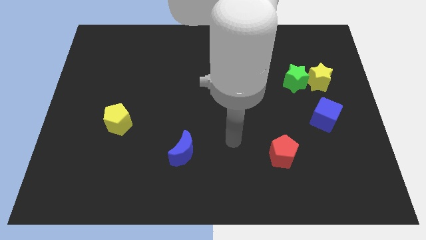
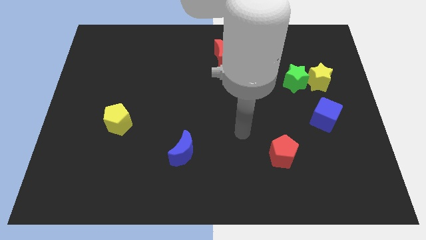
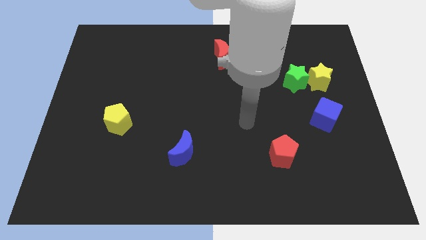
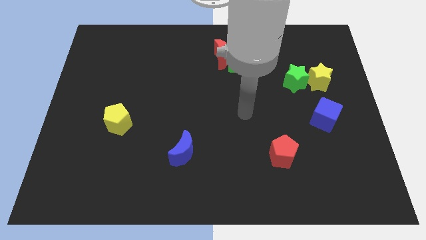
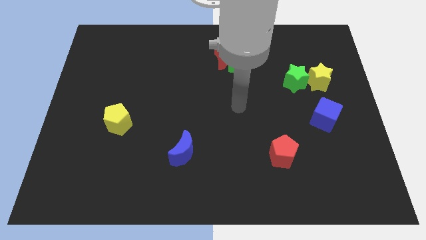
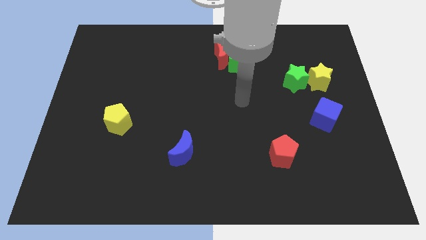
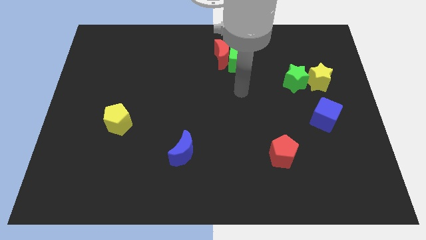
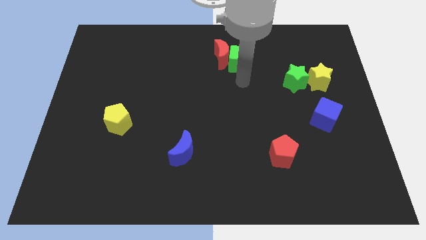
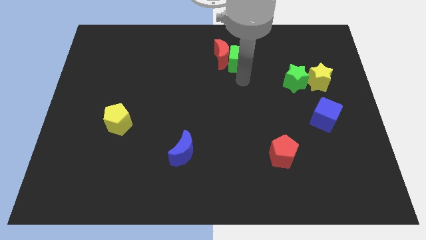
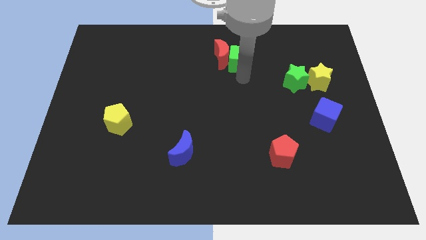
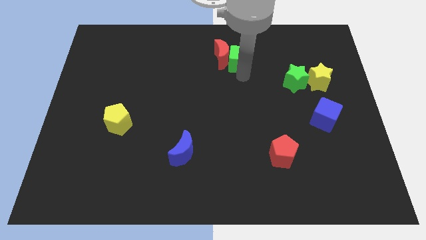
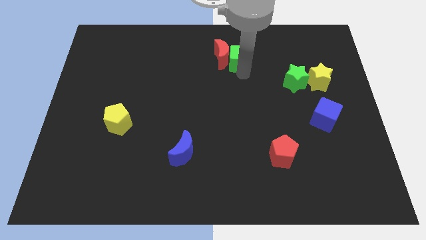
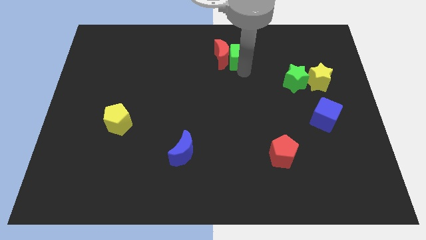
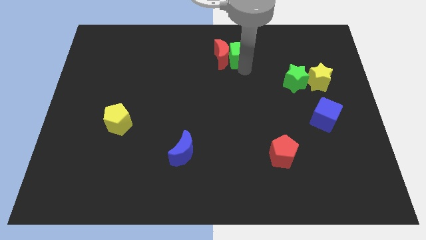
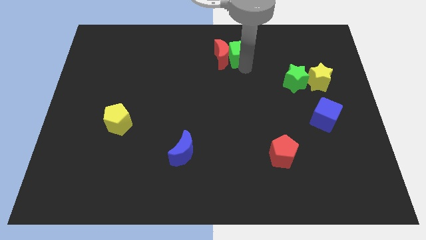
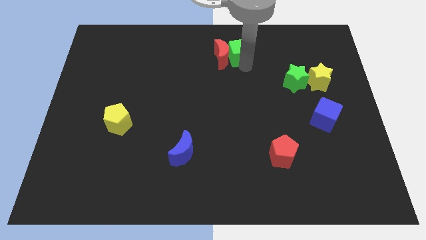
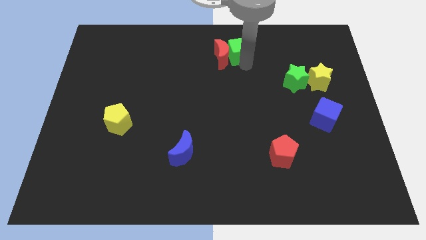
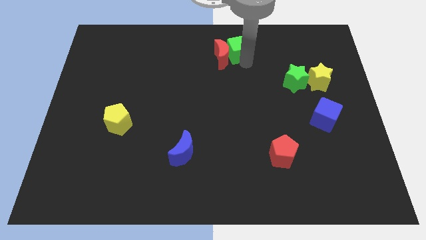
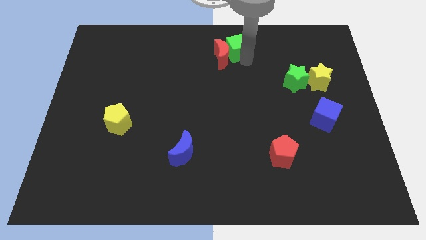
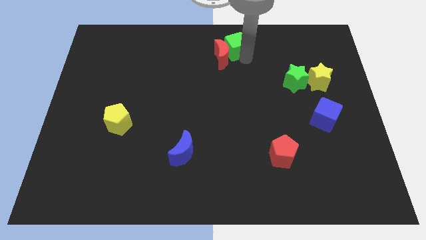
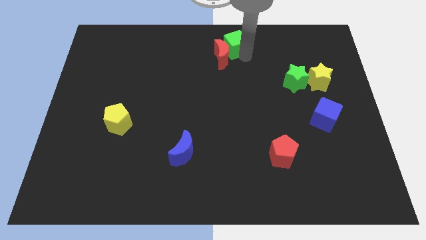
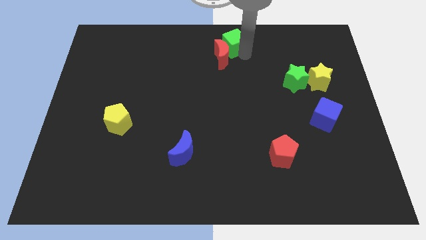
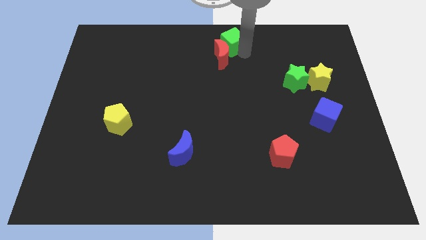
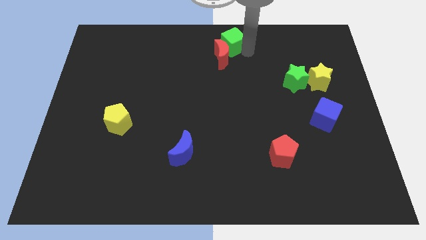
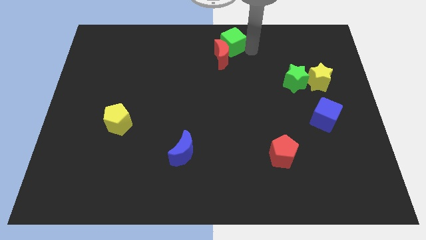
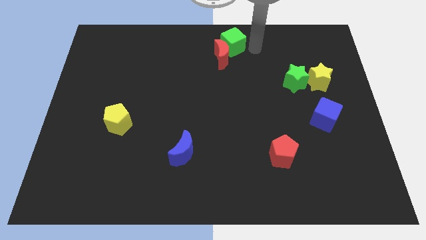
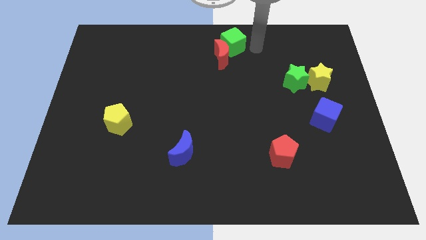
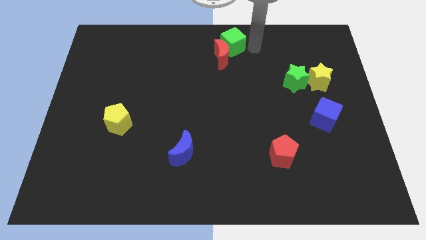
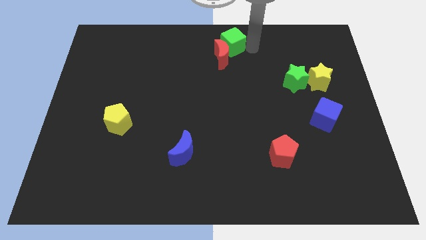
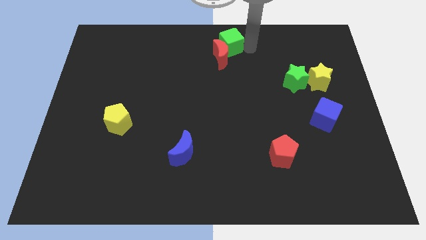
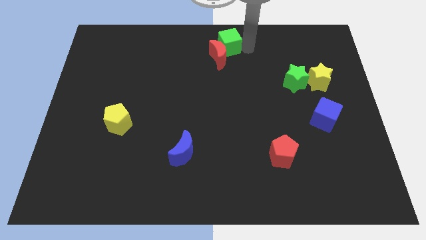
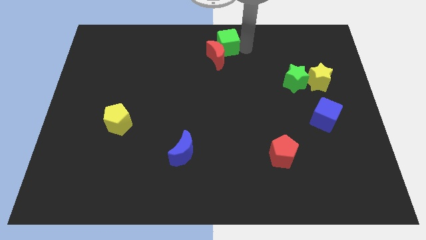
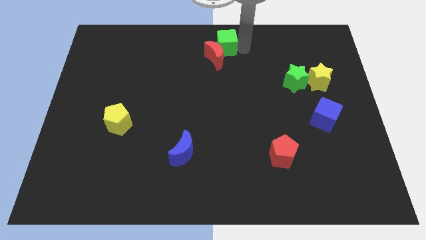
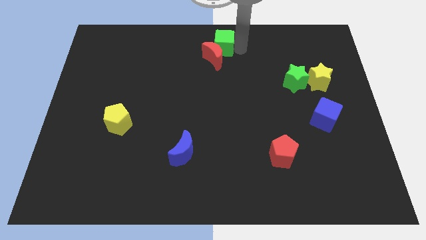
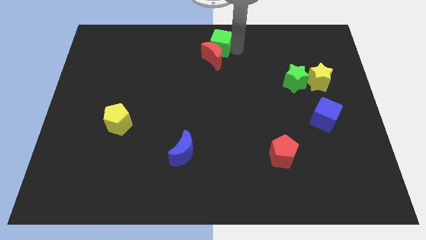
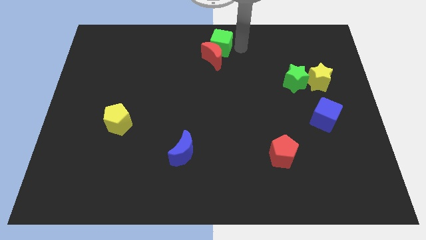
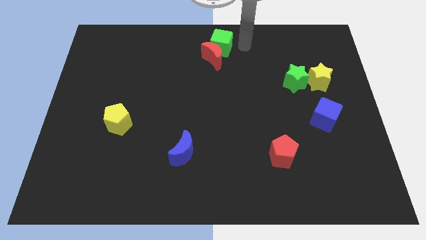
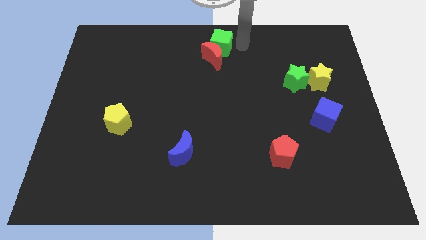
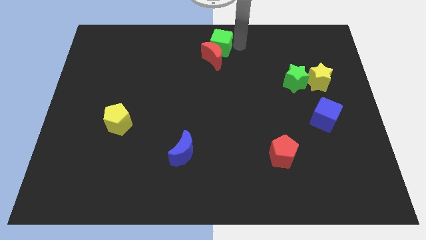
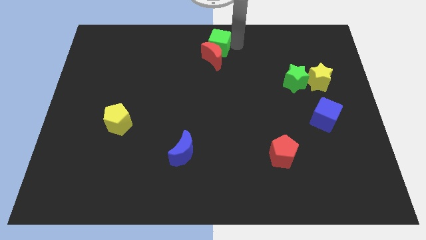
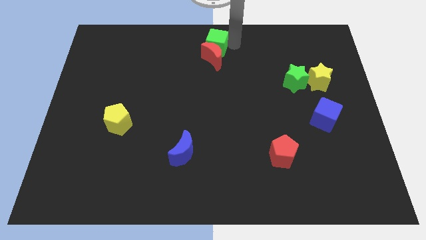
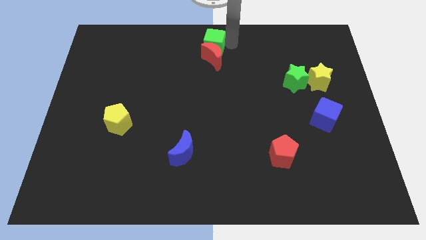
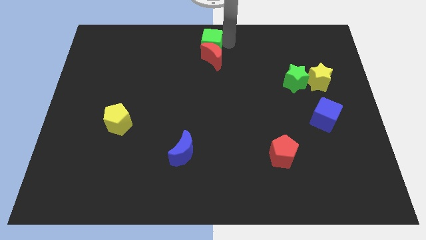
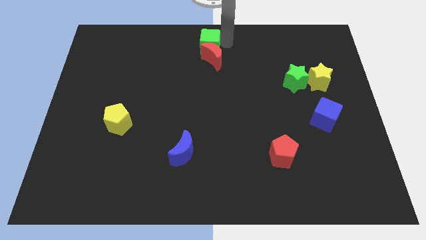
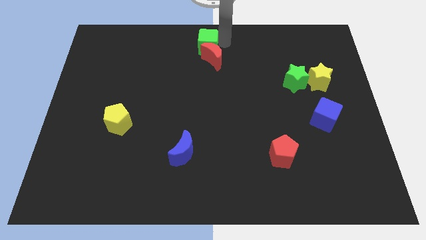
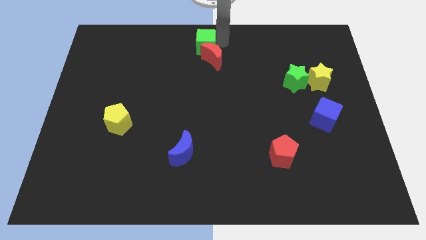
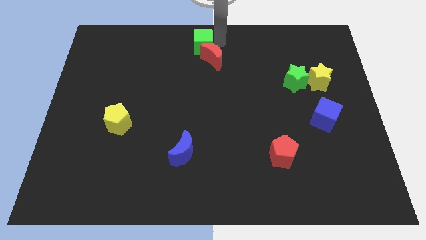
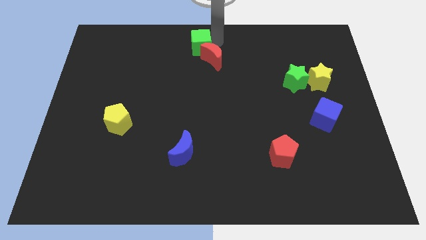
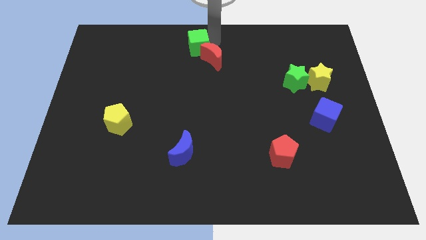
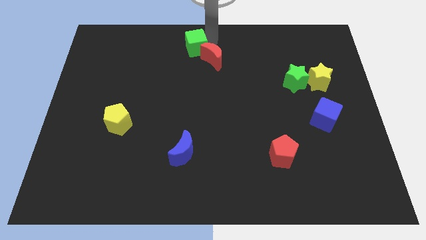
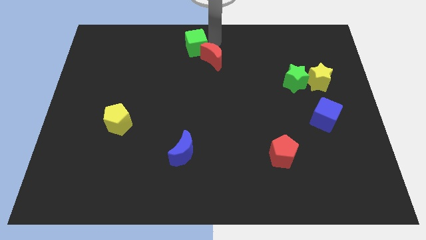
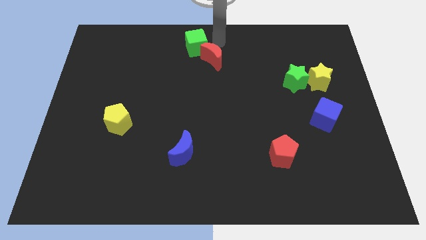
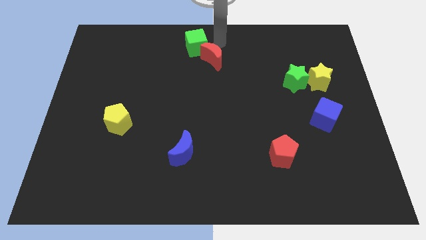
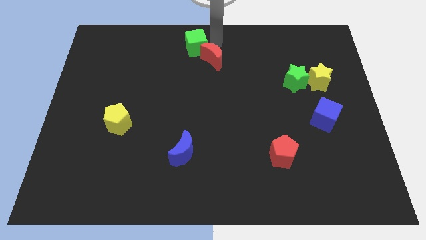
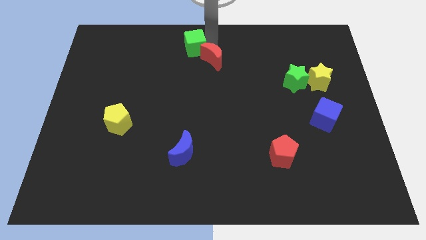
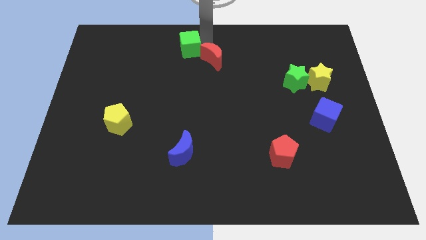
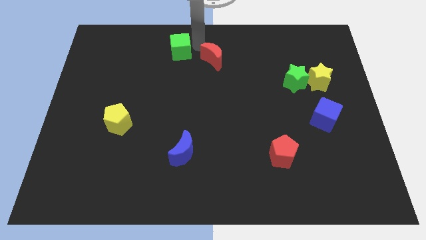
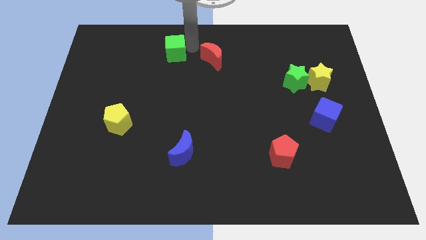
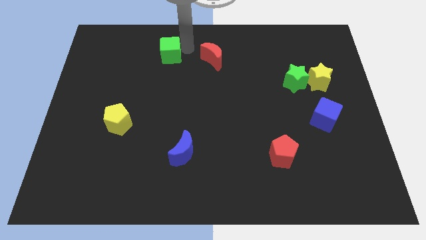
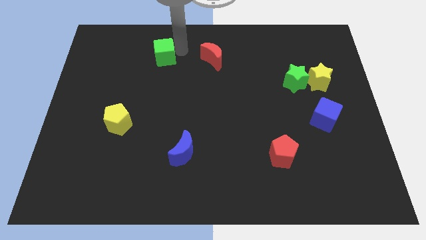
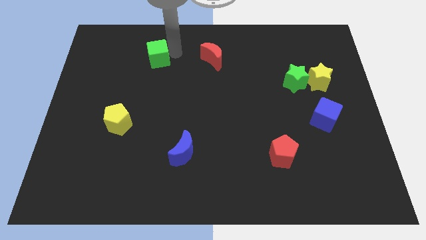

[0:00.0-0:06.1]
slide the green cube left

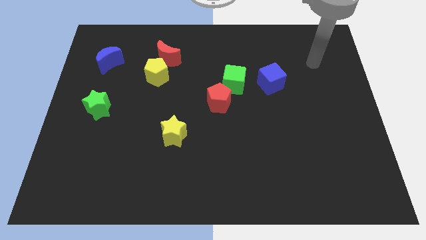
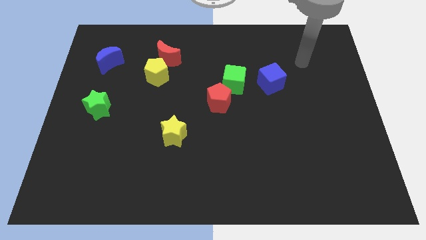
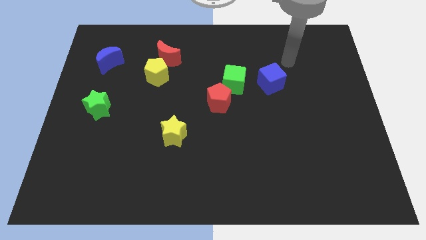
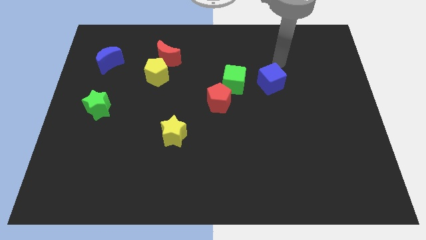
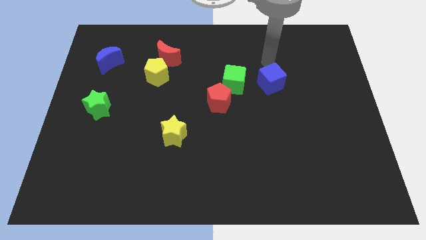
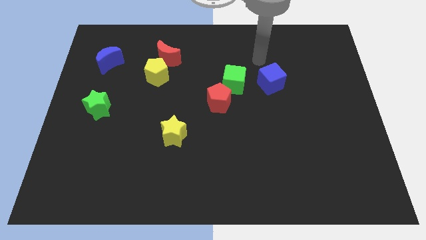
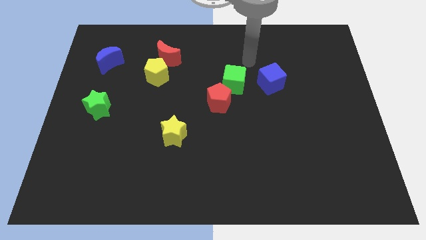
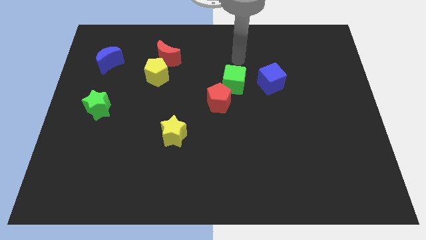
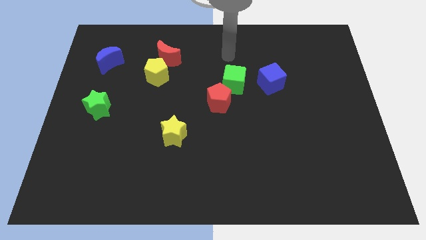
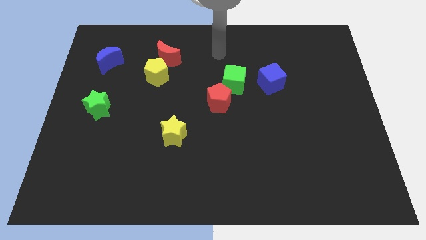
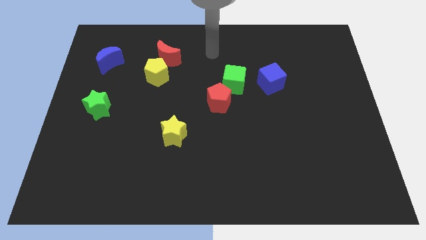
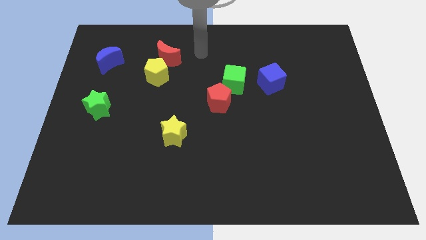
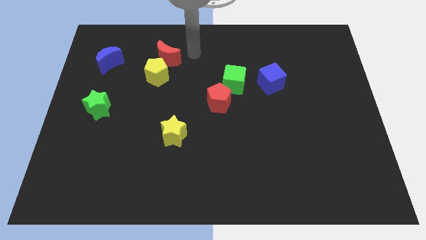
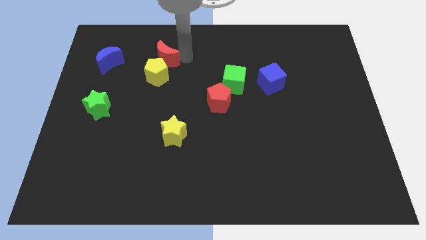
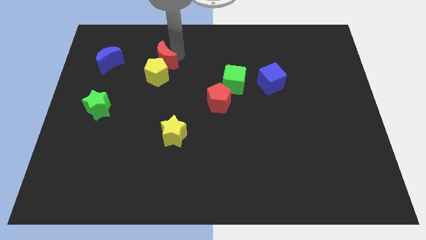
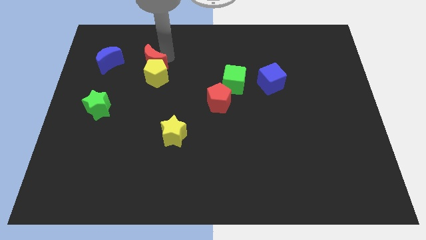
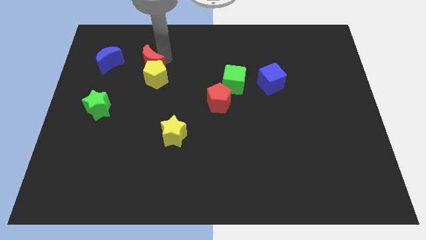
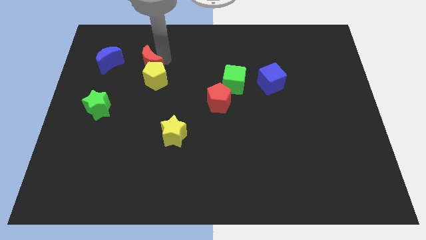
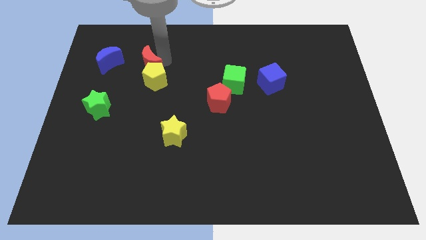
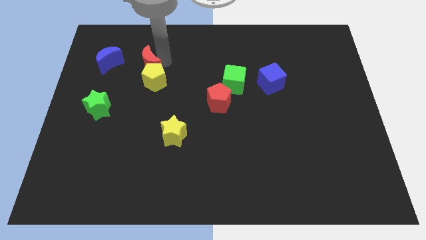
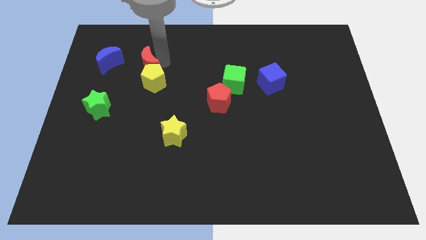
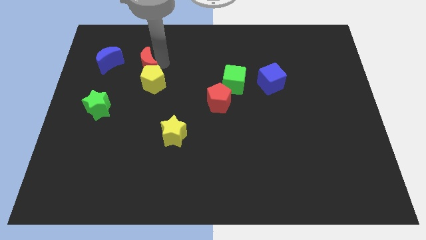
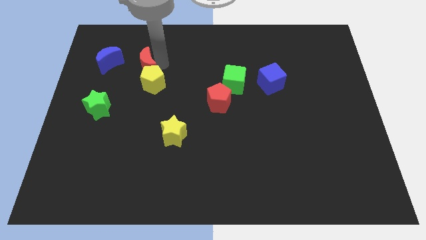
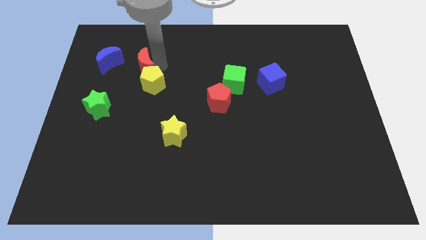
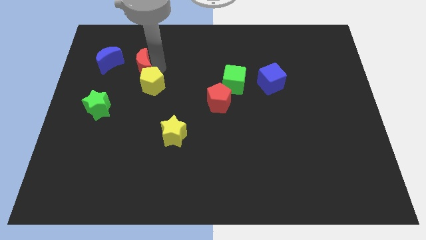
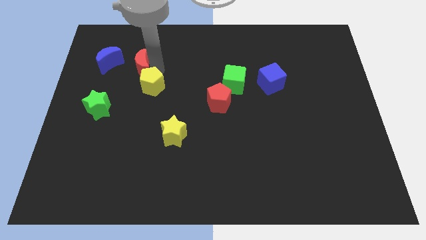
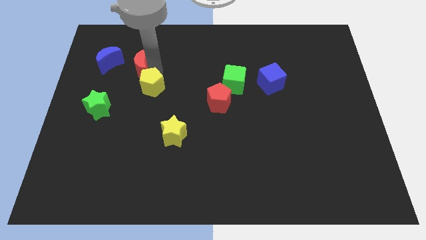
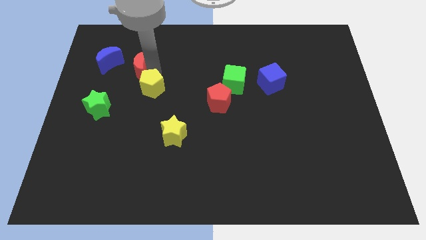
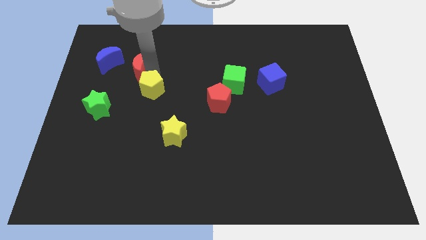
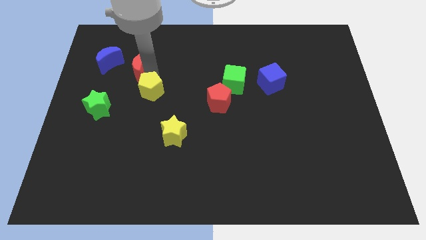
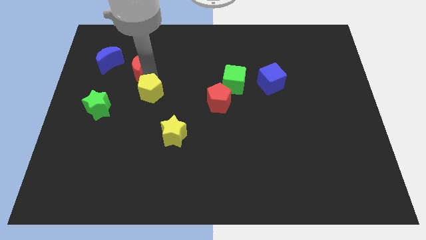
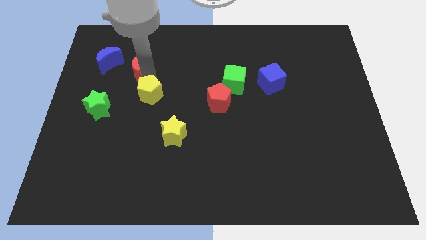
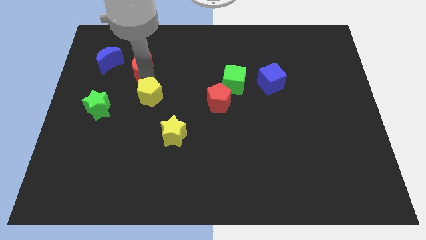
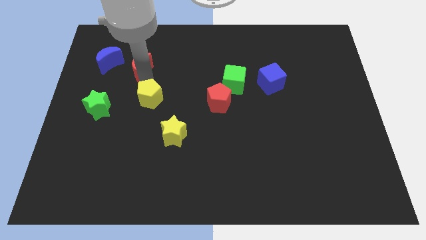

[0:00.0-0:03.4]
move the yellow pentagon downwards slightly
